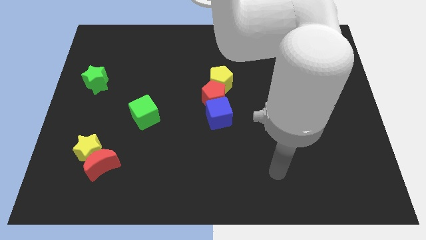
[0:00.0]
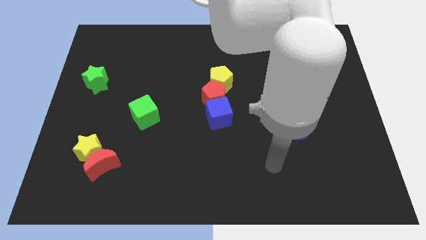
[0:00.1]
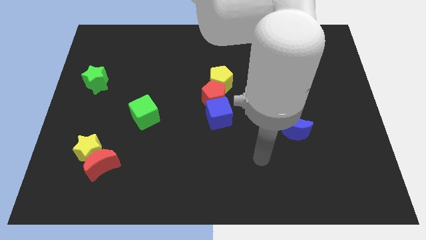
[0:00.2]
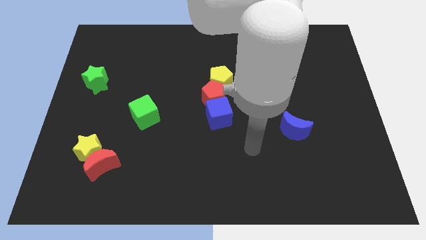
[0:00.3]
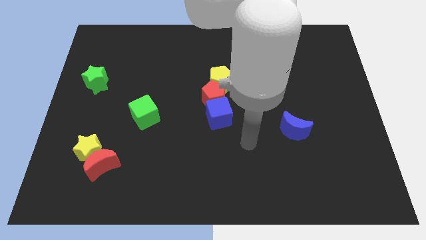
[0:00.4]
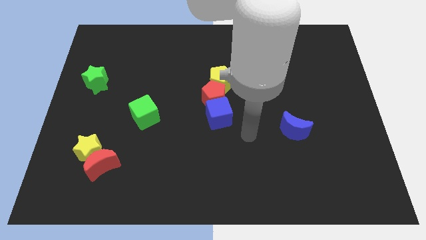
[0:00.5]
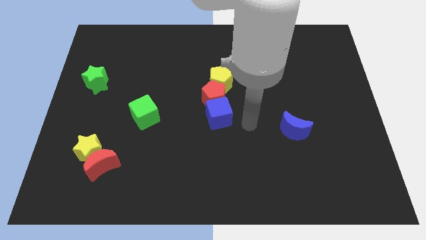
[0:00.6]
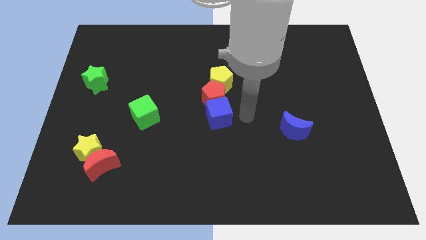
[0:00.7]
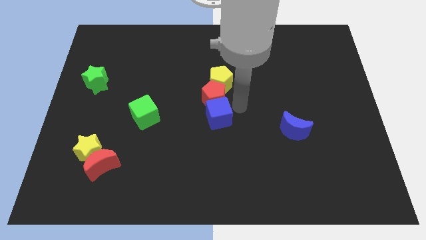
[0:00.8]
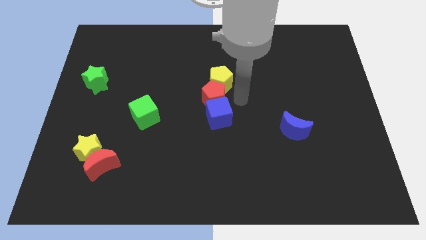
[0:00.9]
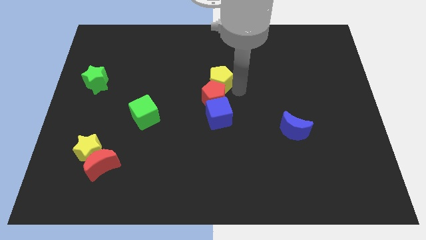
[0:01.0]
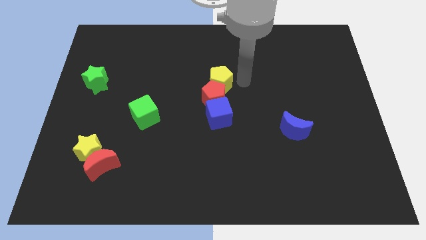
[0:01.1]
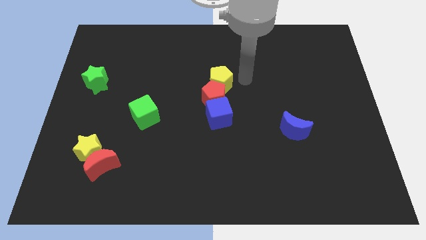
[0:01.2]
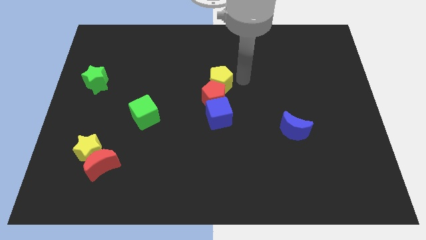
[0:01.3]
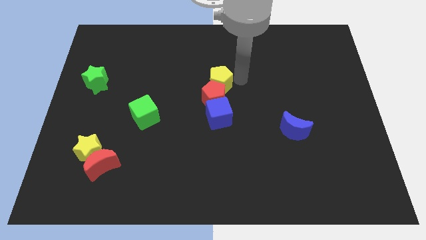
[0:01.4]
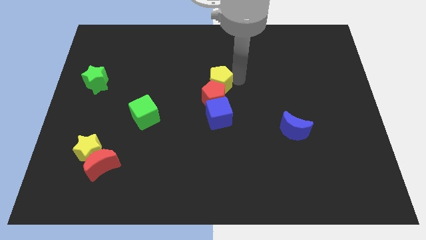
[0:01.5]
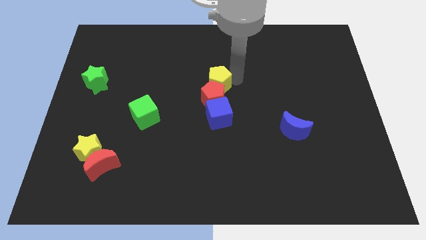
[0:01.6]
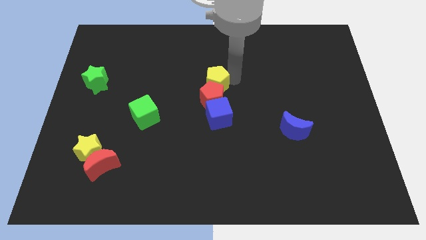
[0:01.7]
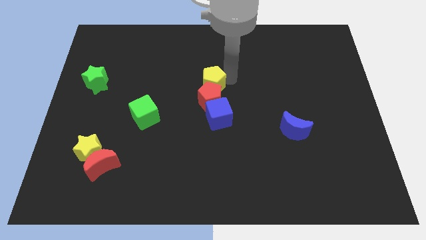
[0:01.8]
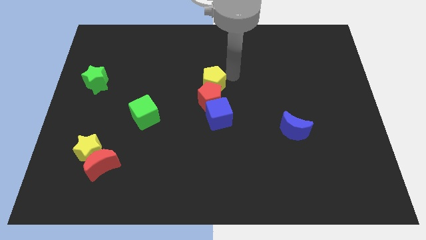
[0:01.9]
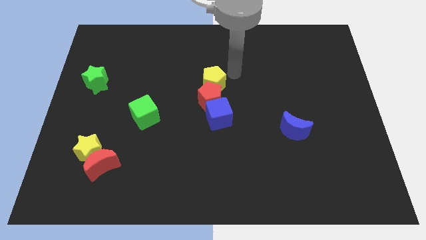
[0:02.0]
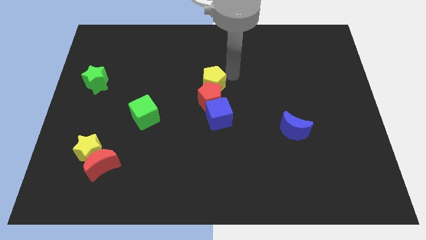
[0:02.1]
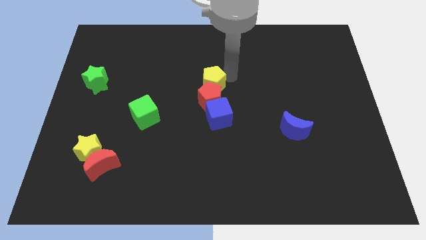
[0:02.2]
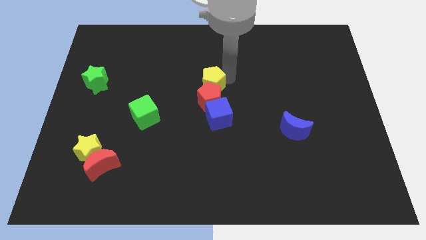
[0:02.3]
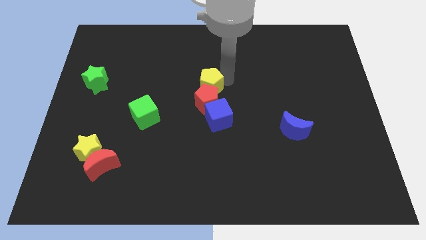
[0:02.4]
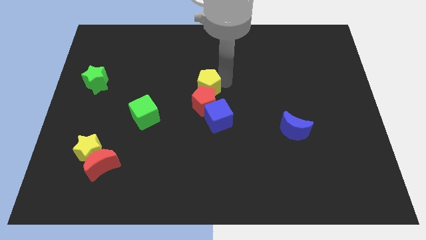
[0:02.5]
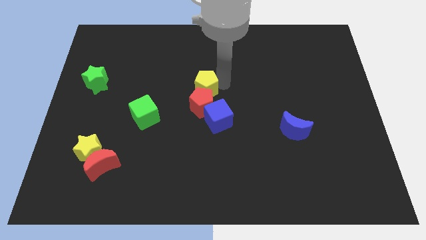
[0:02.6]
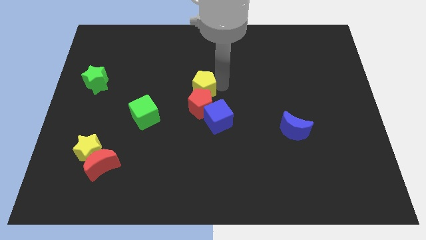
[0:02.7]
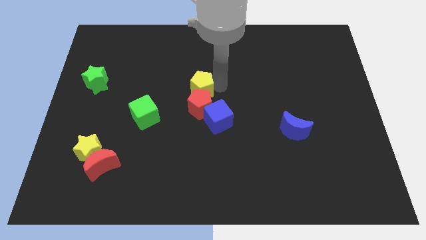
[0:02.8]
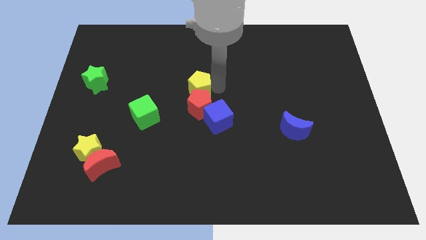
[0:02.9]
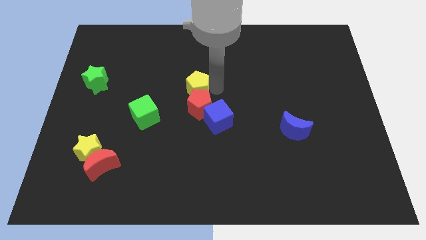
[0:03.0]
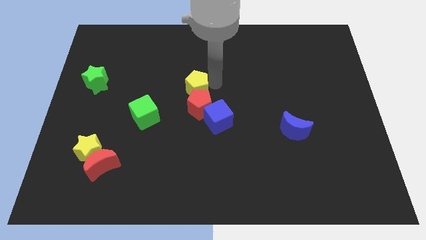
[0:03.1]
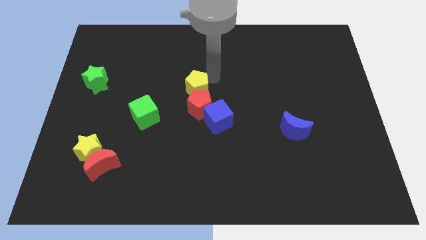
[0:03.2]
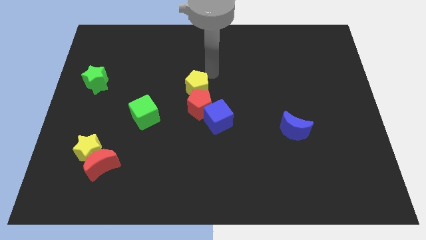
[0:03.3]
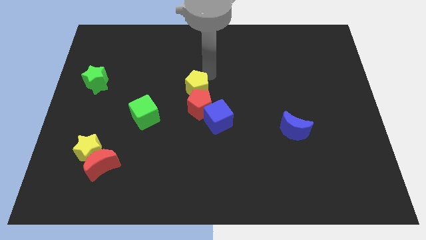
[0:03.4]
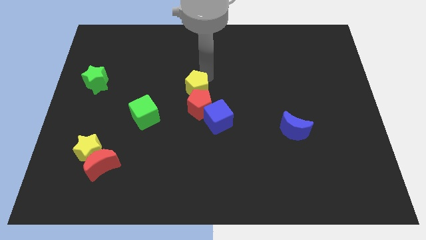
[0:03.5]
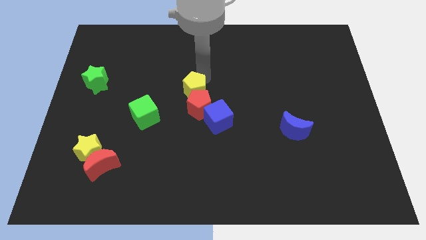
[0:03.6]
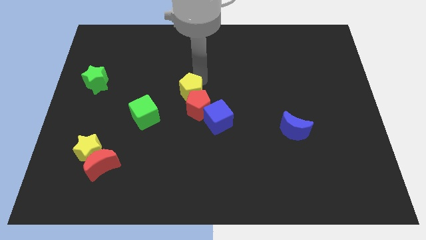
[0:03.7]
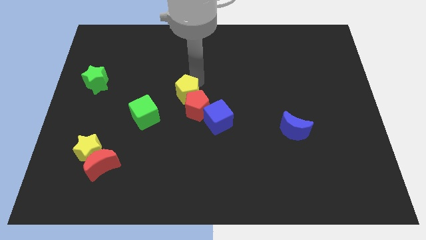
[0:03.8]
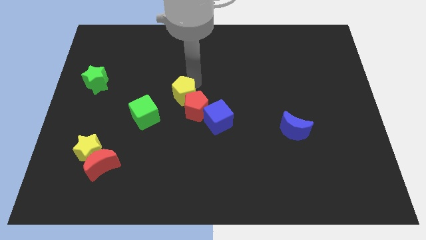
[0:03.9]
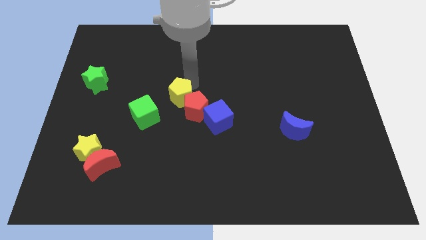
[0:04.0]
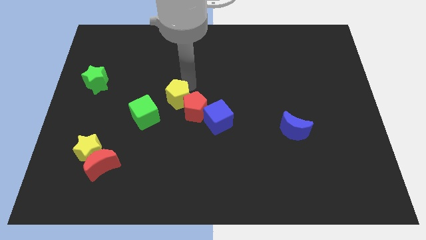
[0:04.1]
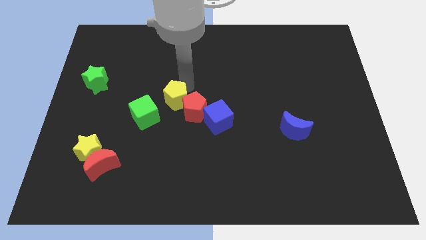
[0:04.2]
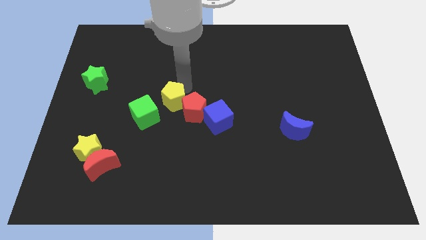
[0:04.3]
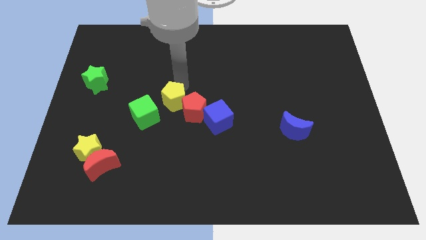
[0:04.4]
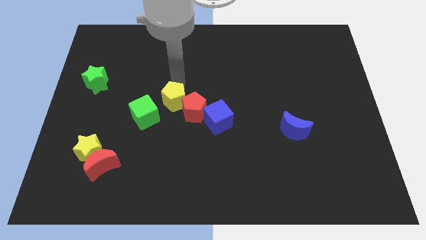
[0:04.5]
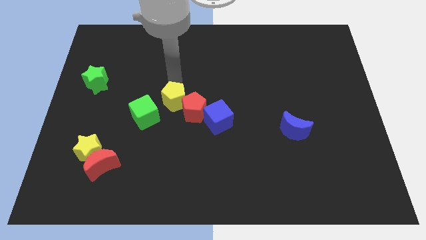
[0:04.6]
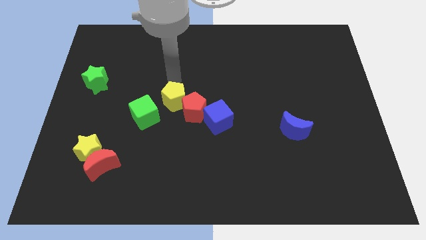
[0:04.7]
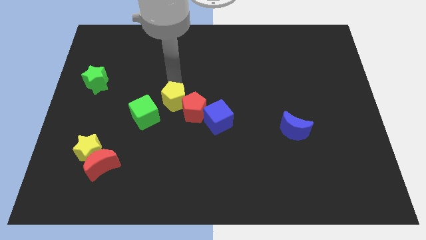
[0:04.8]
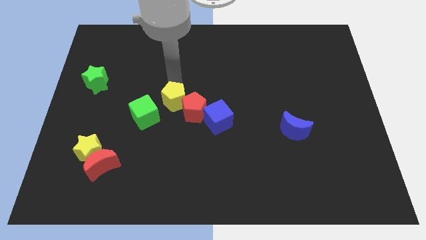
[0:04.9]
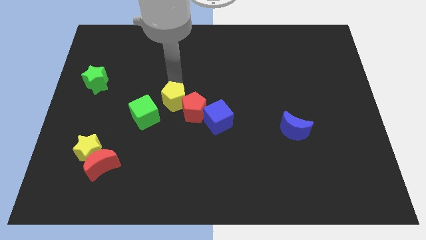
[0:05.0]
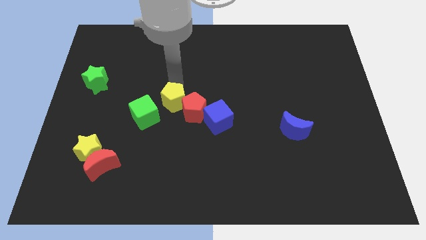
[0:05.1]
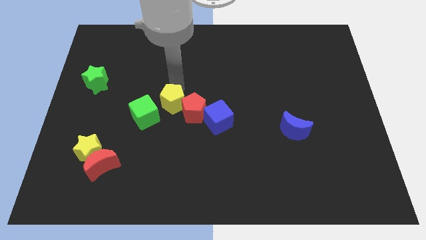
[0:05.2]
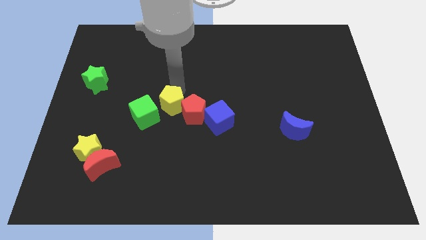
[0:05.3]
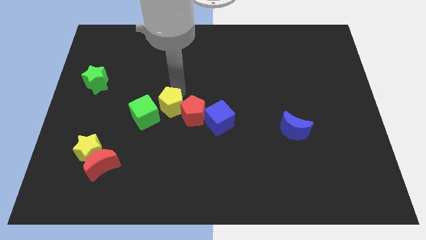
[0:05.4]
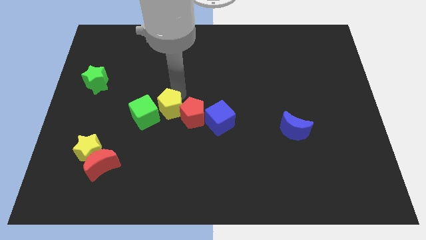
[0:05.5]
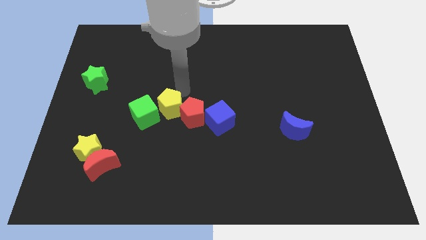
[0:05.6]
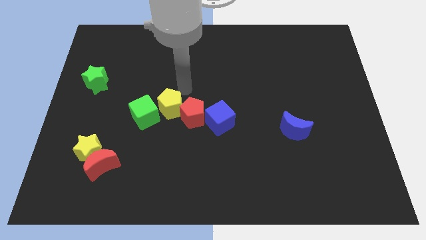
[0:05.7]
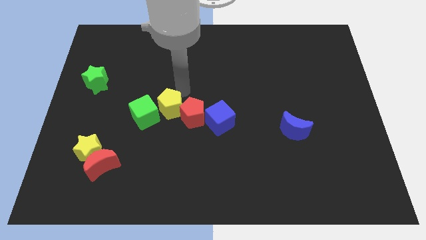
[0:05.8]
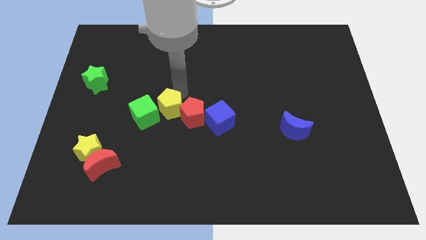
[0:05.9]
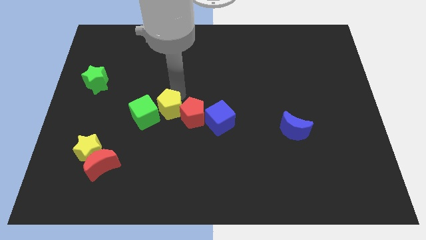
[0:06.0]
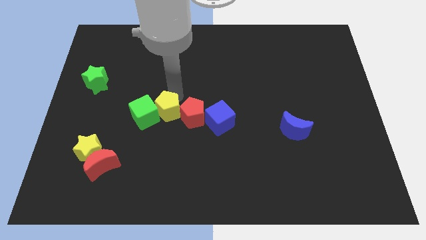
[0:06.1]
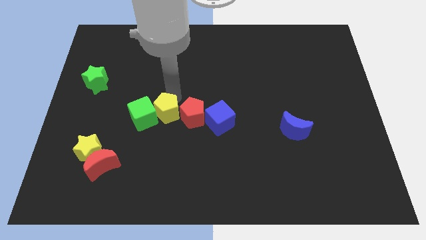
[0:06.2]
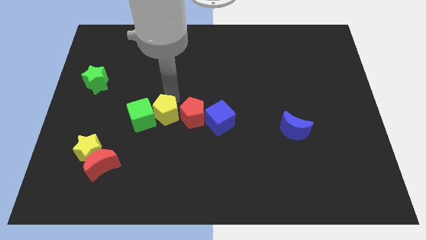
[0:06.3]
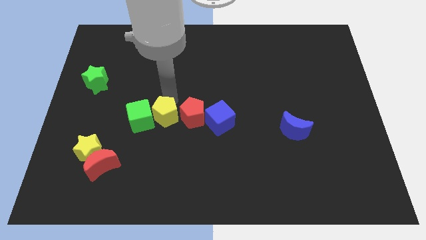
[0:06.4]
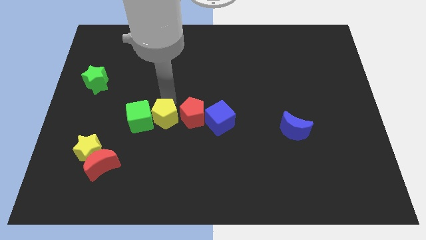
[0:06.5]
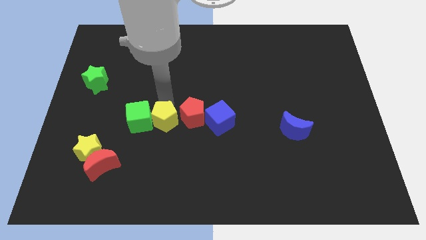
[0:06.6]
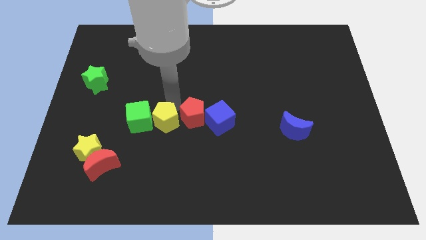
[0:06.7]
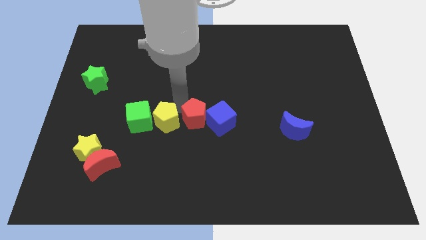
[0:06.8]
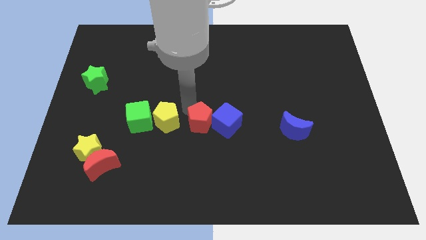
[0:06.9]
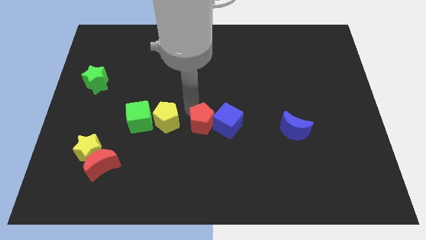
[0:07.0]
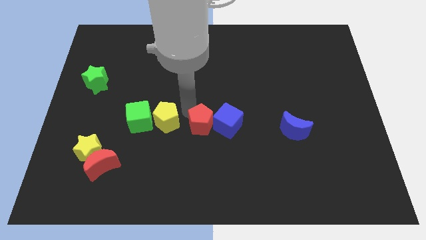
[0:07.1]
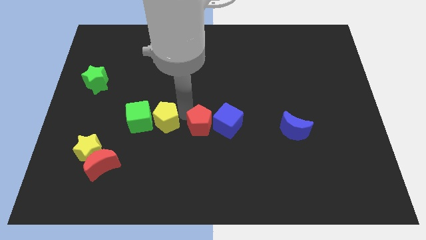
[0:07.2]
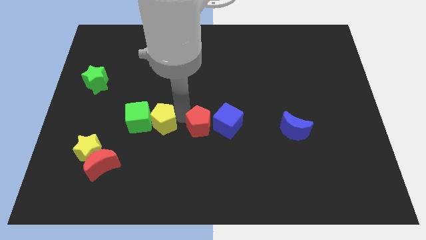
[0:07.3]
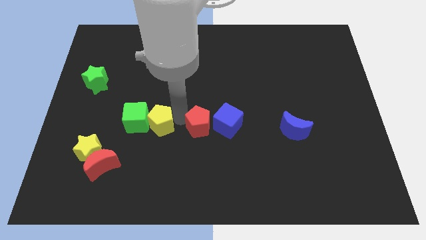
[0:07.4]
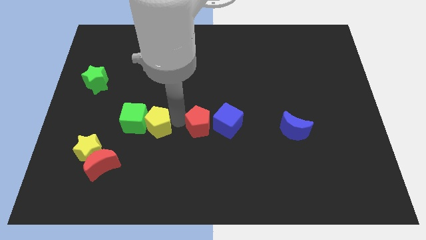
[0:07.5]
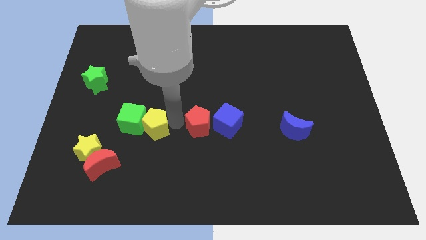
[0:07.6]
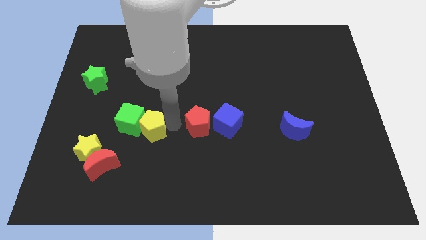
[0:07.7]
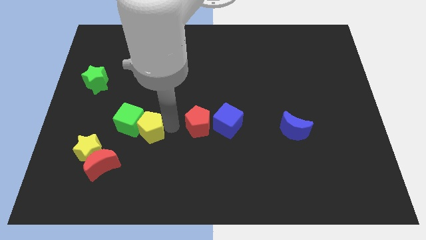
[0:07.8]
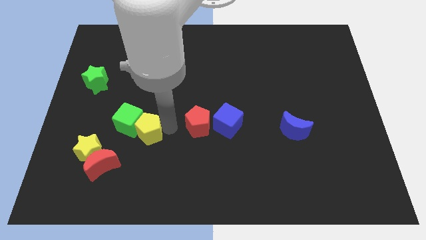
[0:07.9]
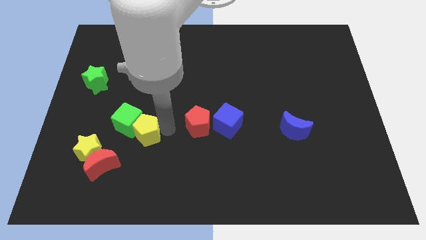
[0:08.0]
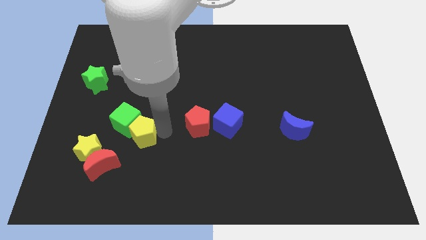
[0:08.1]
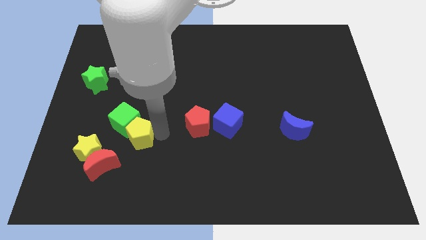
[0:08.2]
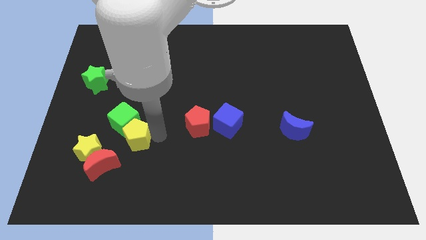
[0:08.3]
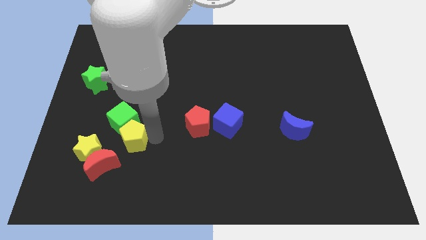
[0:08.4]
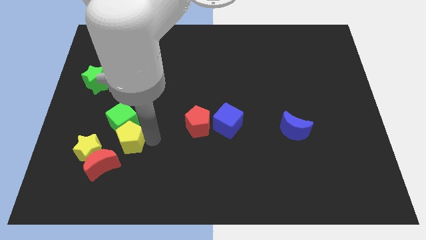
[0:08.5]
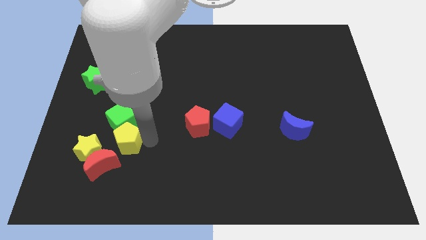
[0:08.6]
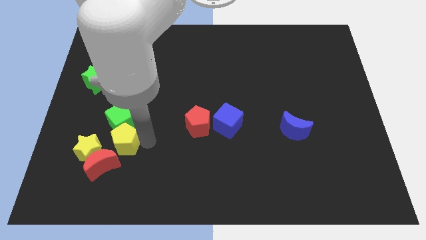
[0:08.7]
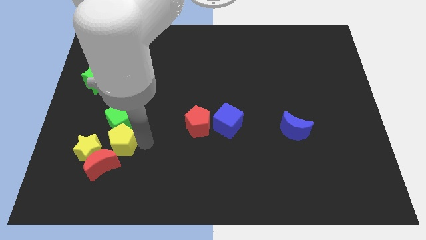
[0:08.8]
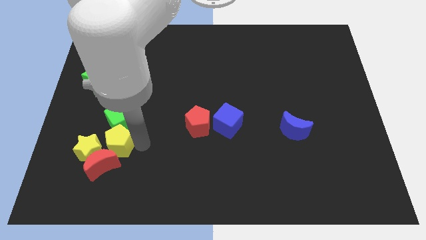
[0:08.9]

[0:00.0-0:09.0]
slide the yellow pentagon next to the yellow star
